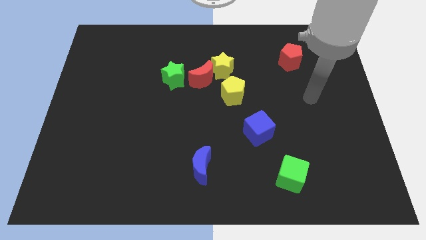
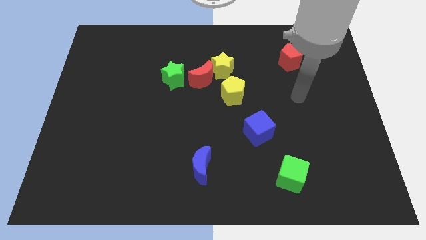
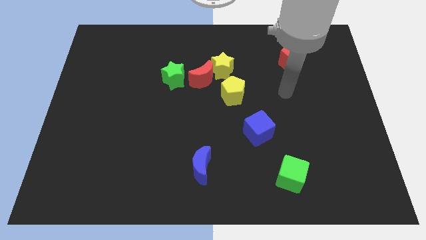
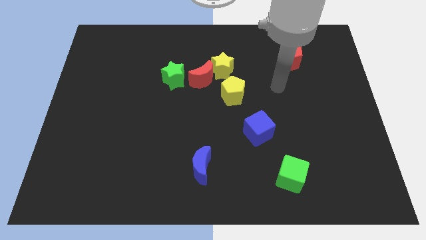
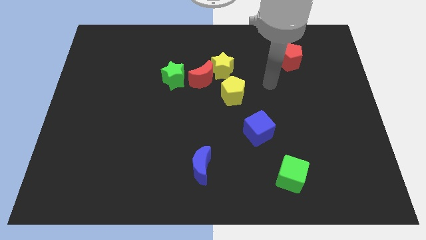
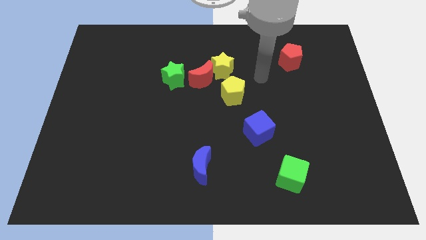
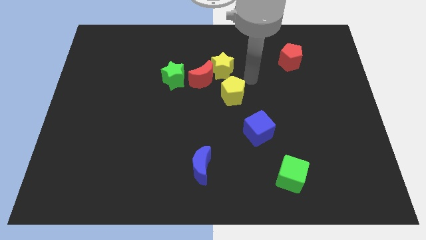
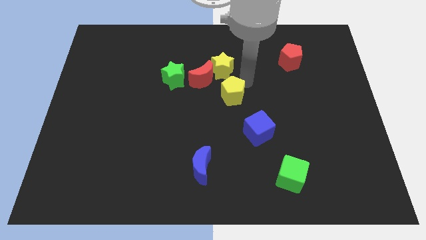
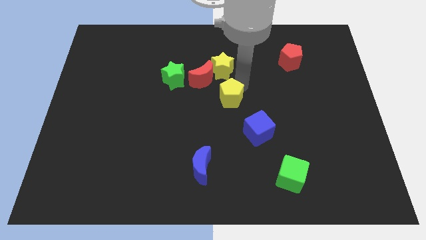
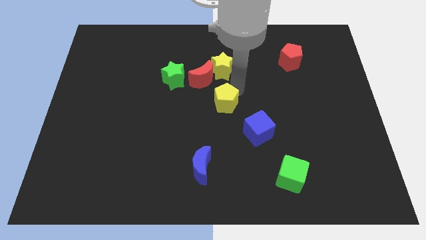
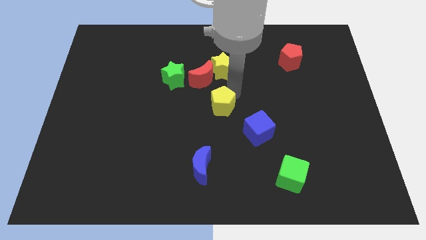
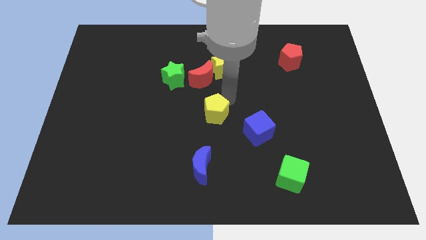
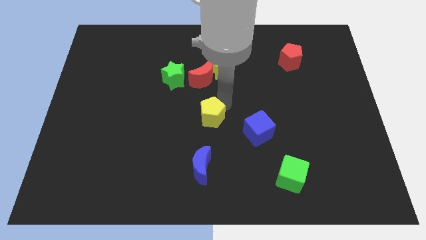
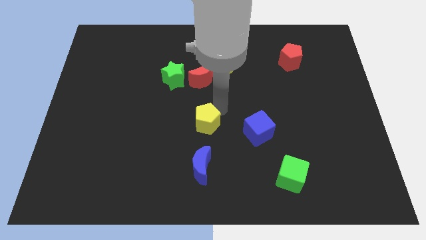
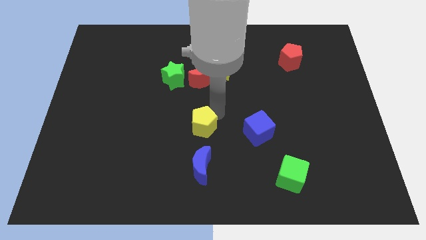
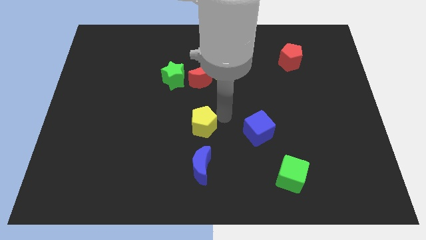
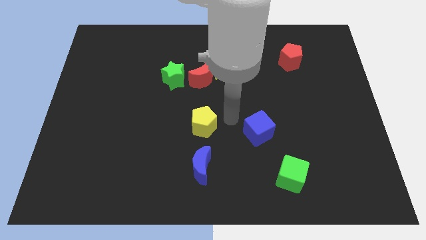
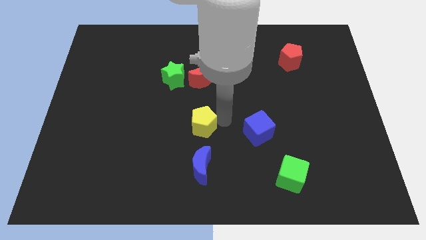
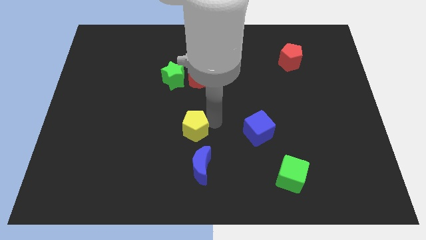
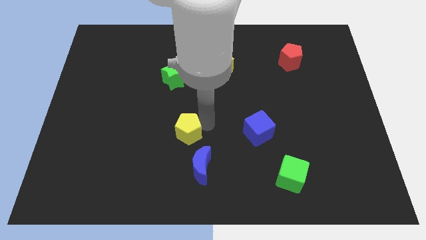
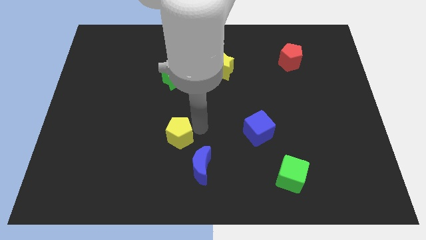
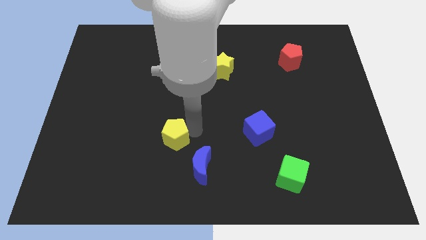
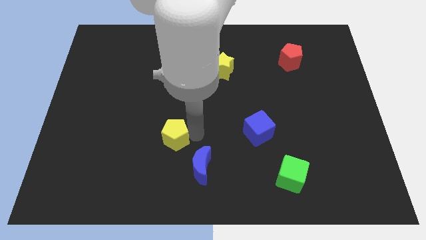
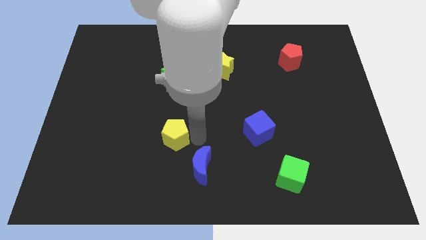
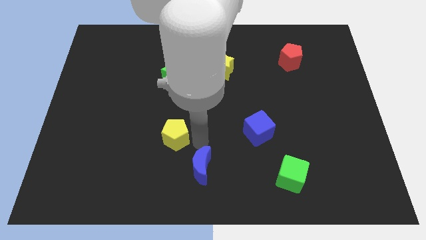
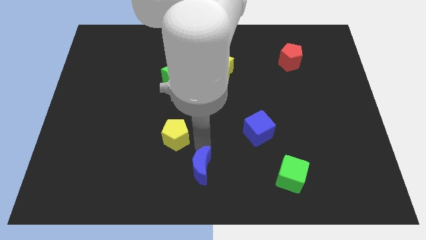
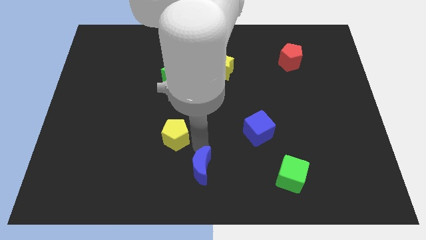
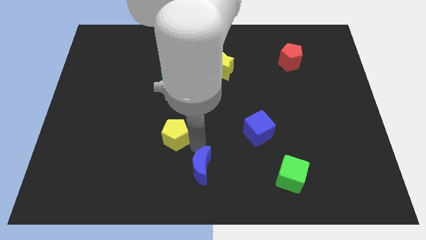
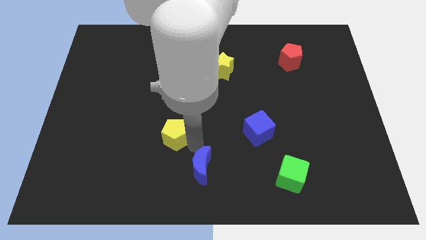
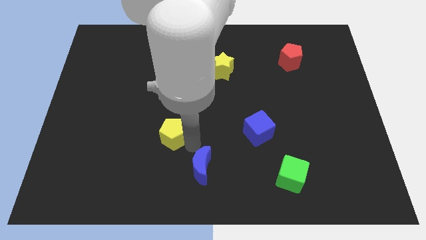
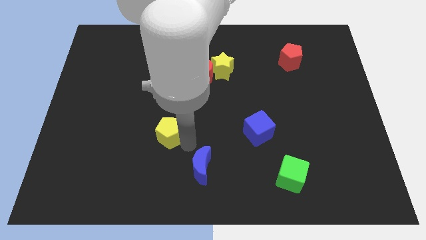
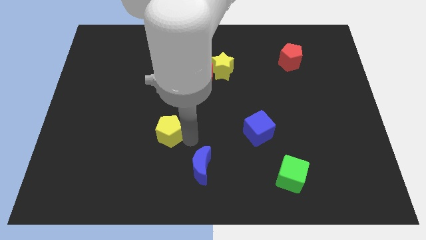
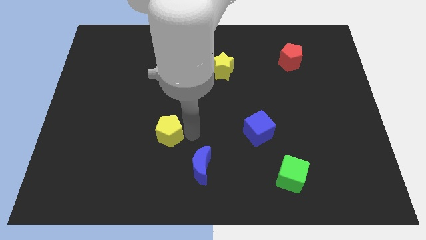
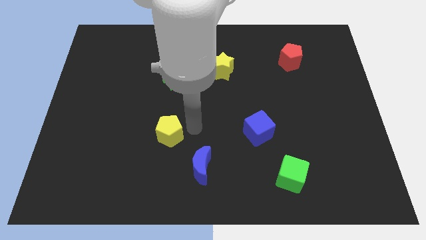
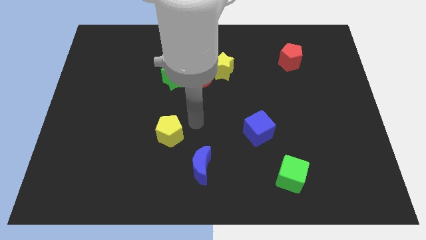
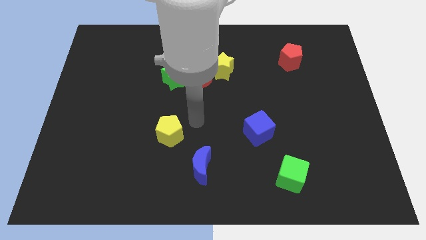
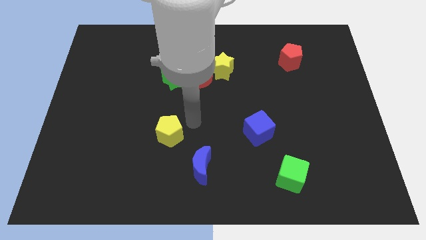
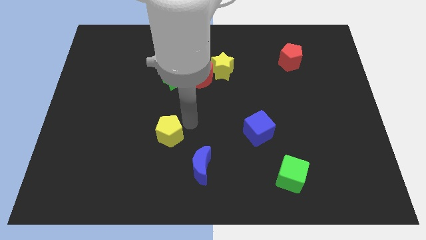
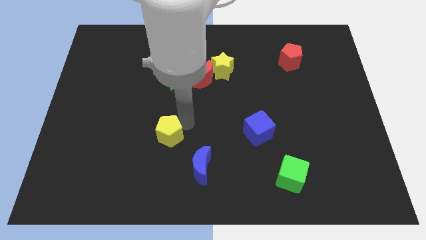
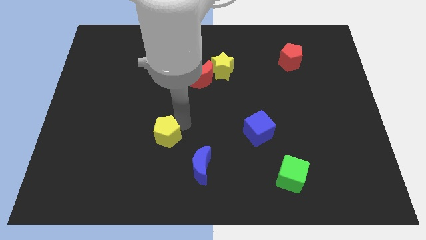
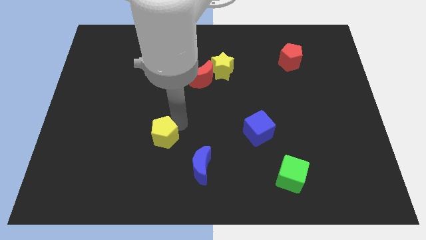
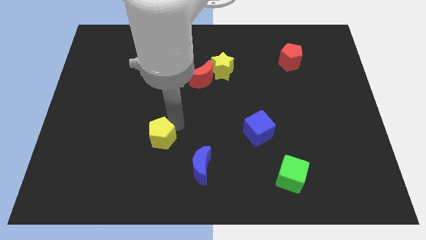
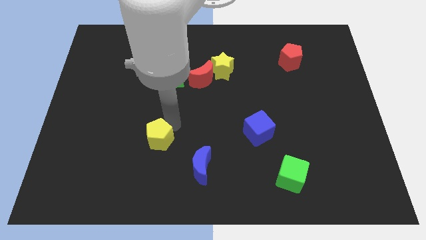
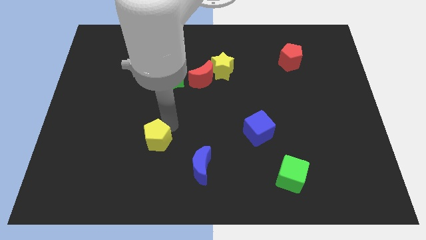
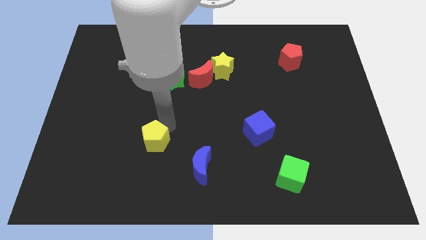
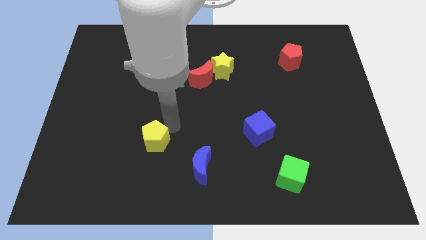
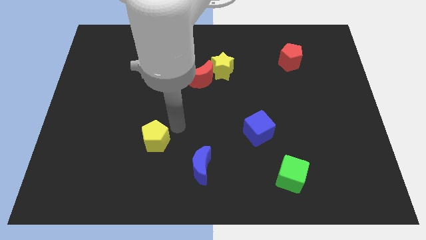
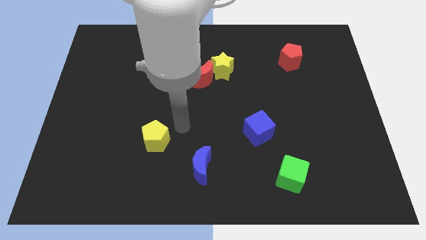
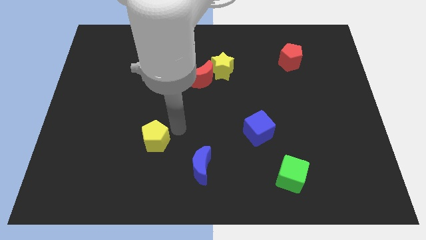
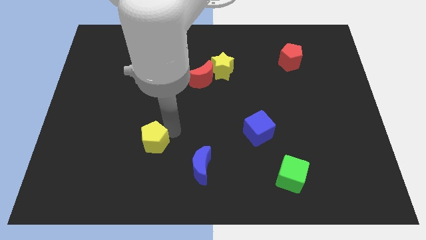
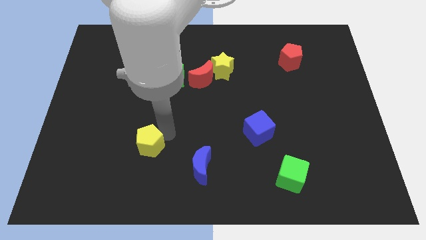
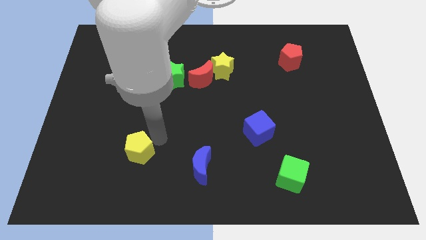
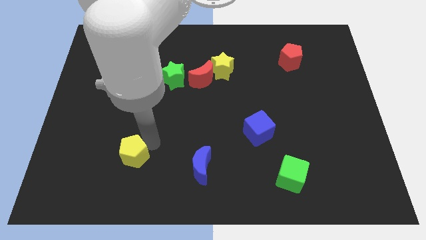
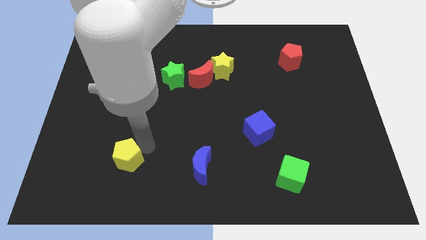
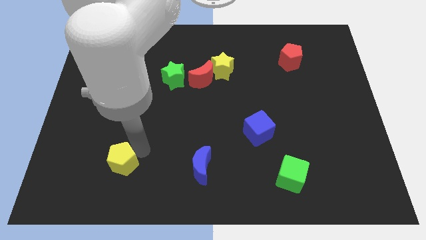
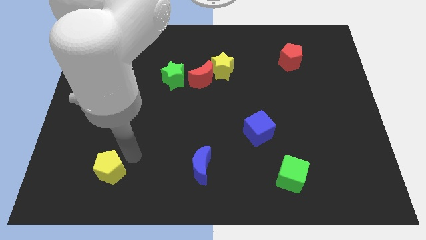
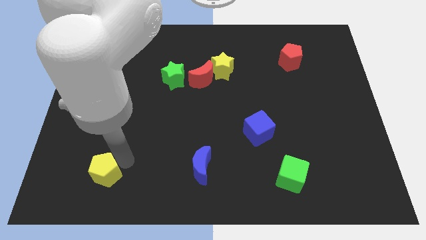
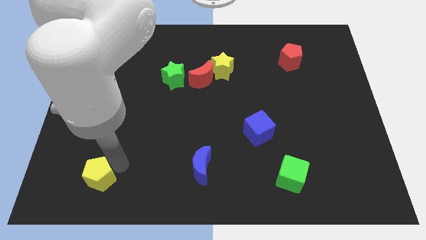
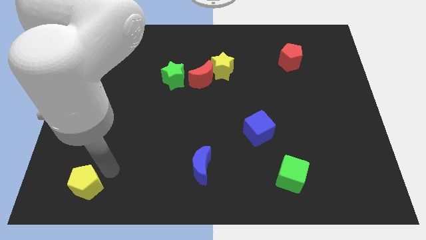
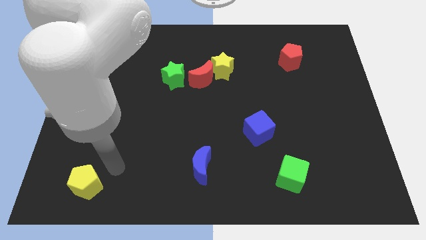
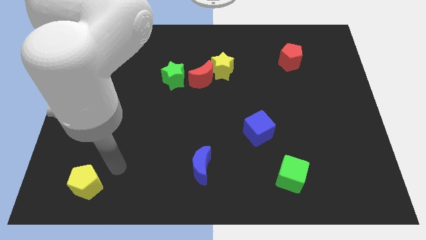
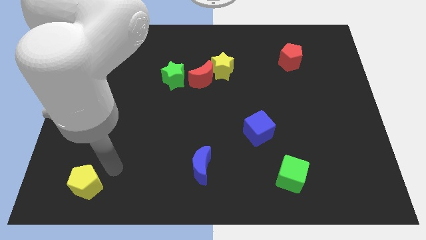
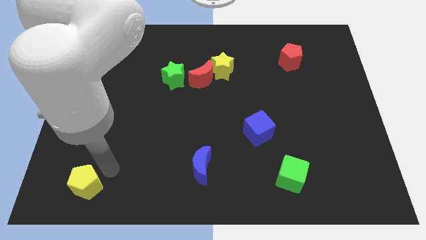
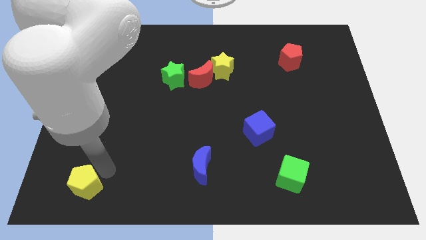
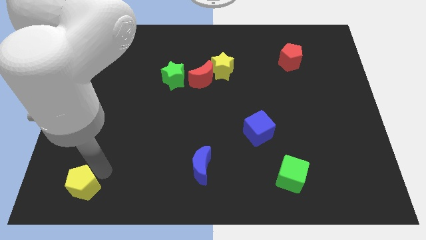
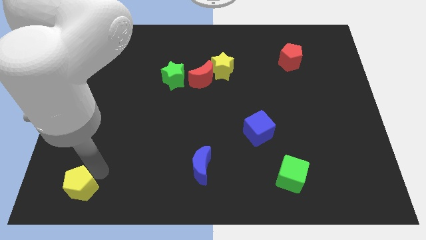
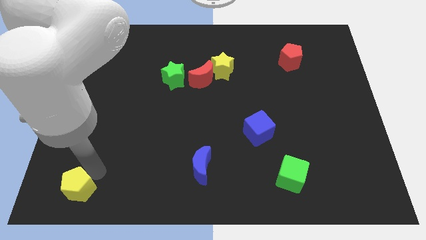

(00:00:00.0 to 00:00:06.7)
put the yellow pentagon to the bottom left of the board
